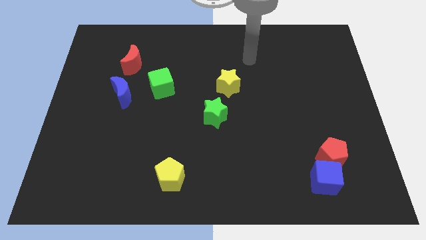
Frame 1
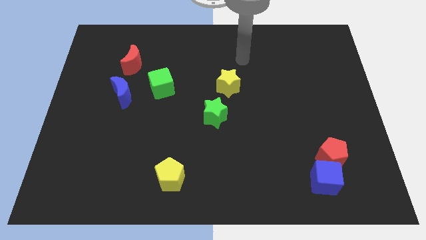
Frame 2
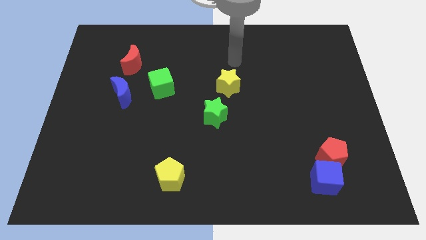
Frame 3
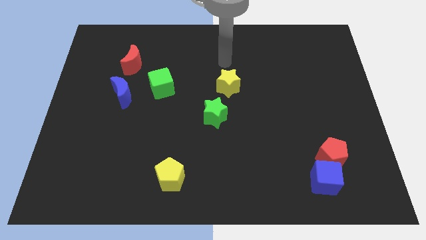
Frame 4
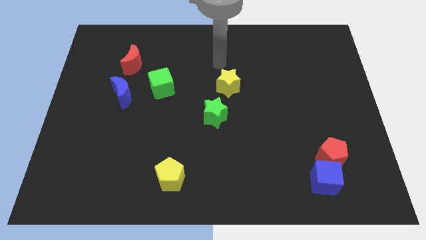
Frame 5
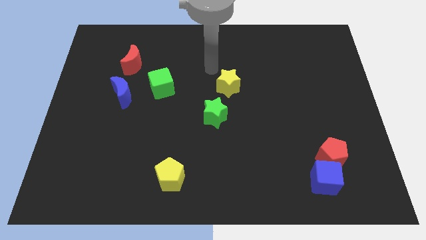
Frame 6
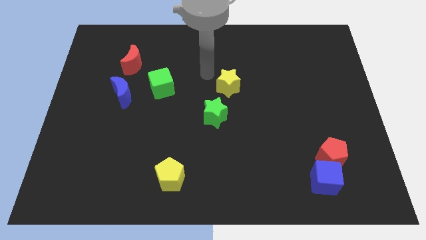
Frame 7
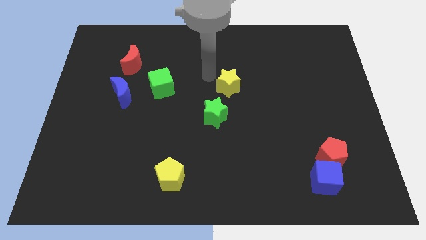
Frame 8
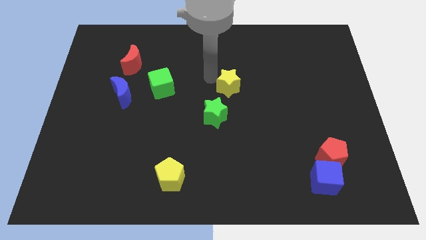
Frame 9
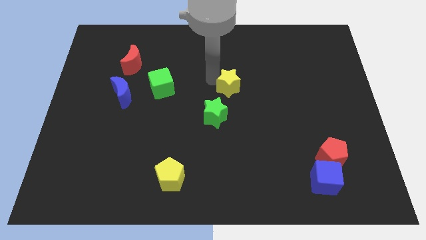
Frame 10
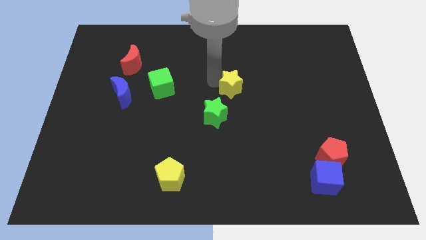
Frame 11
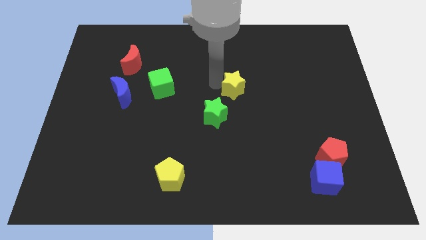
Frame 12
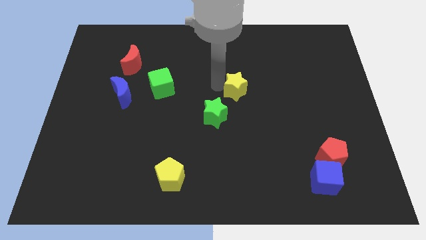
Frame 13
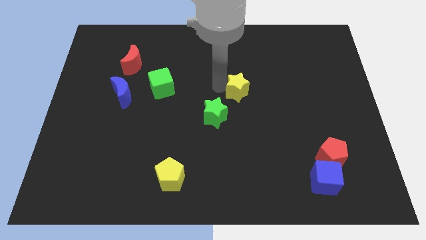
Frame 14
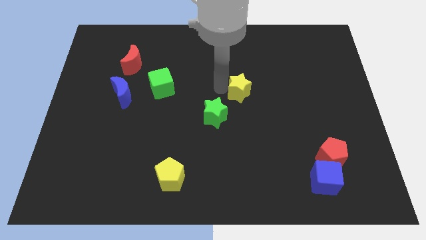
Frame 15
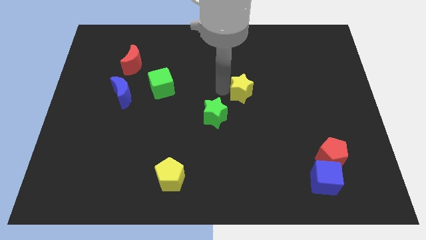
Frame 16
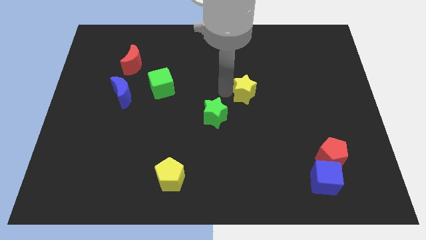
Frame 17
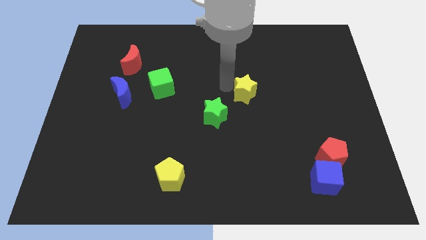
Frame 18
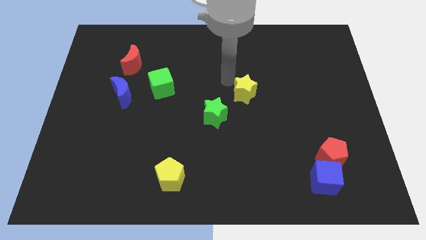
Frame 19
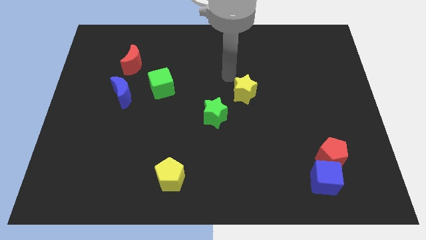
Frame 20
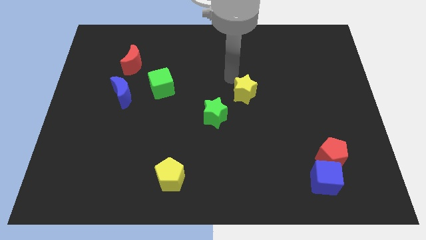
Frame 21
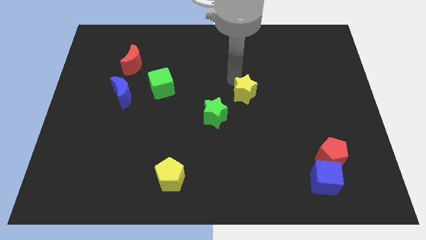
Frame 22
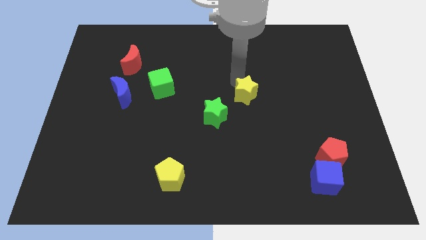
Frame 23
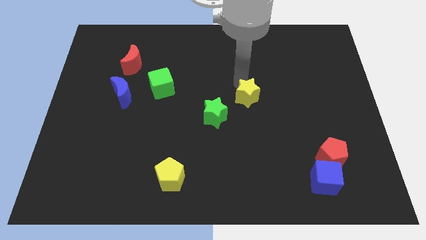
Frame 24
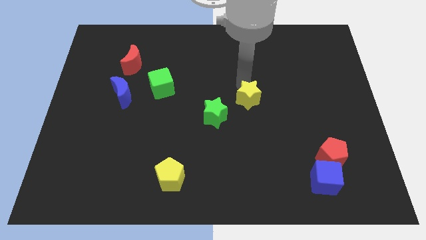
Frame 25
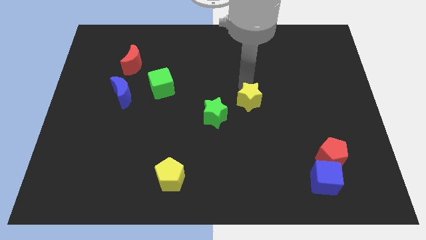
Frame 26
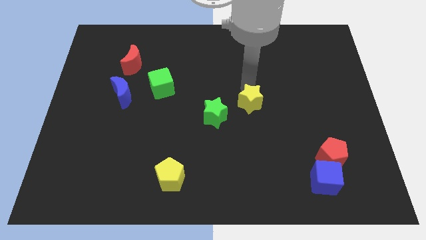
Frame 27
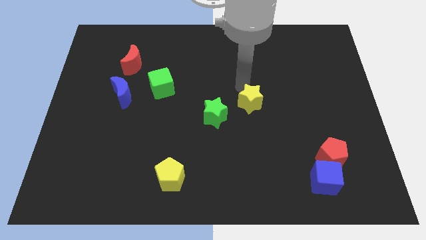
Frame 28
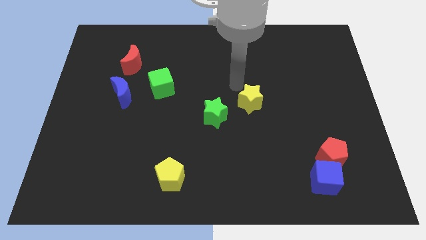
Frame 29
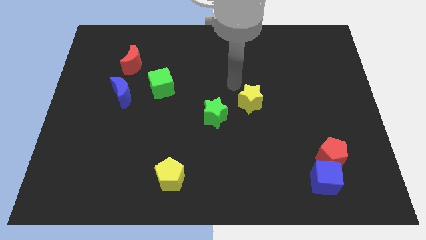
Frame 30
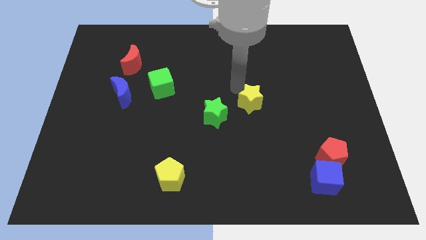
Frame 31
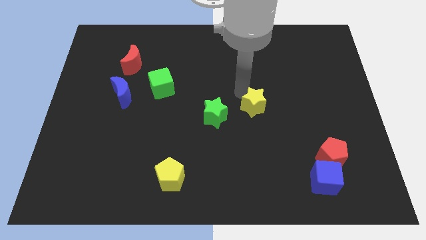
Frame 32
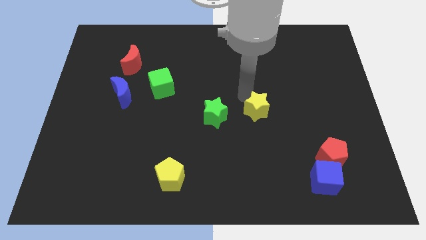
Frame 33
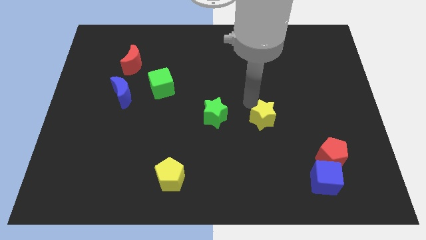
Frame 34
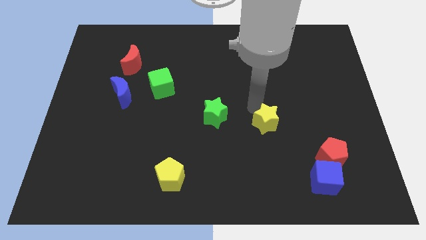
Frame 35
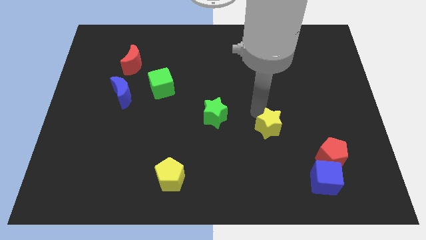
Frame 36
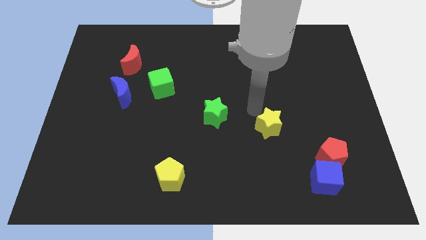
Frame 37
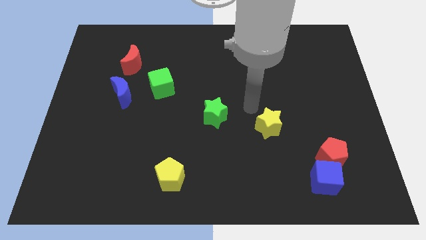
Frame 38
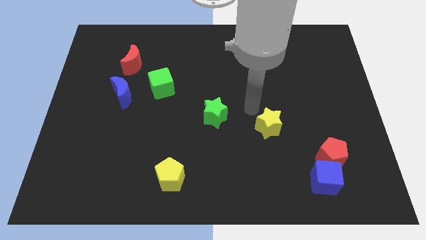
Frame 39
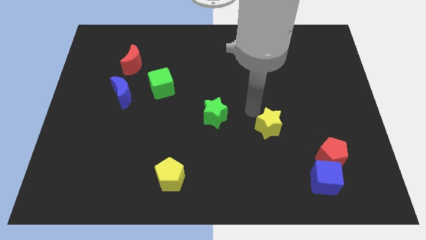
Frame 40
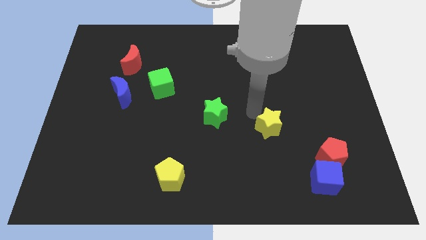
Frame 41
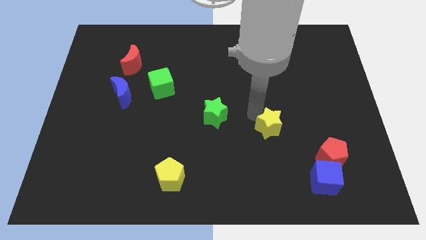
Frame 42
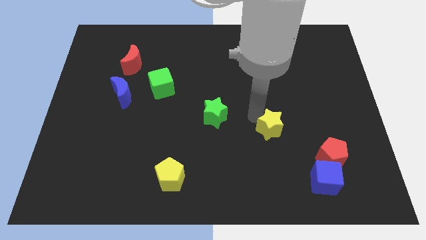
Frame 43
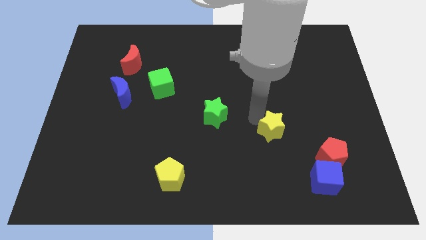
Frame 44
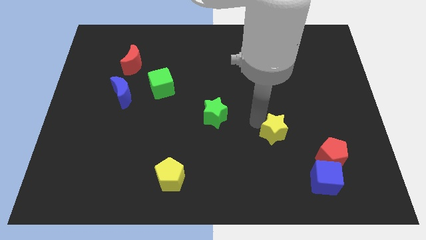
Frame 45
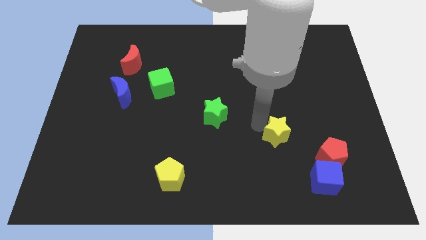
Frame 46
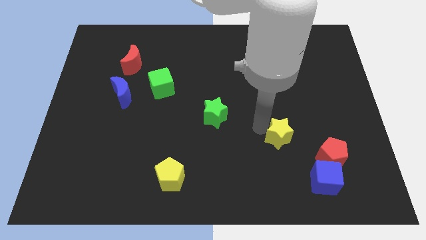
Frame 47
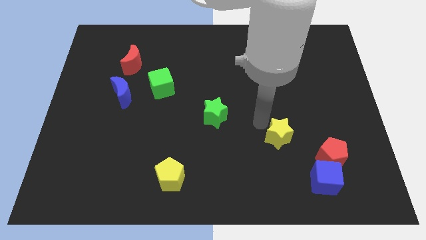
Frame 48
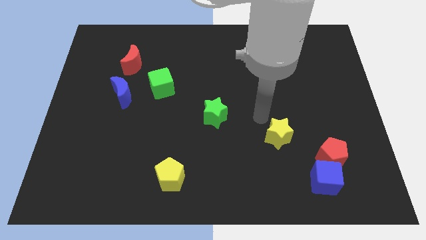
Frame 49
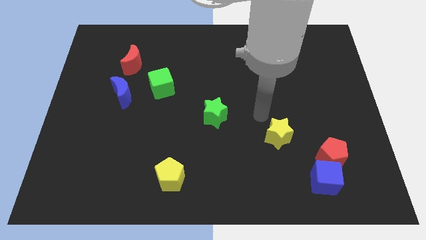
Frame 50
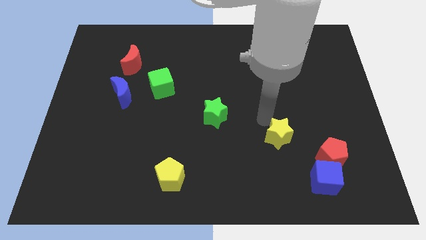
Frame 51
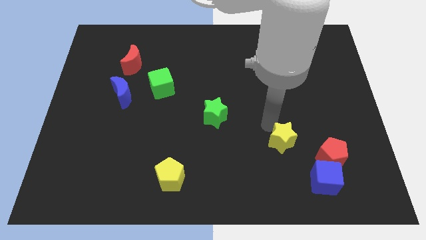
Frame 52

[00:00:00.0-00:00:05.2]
slide the yellow star diagonally up and to the left of the blue cube

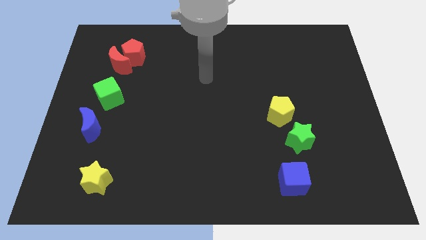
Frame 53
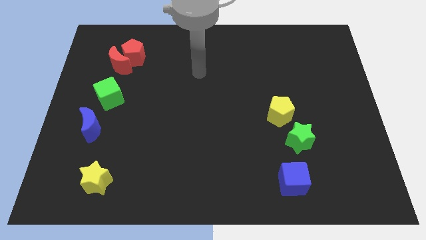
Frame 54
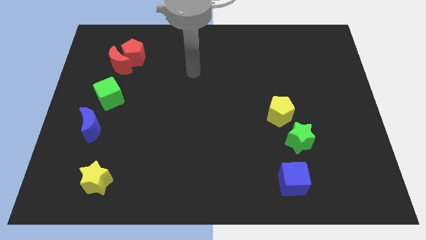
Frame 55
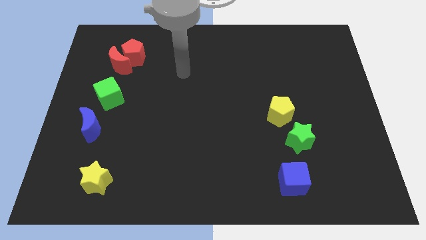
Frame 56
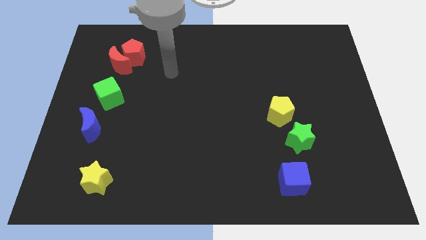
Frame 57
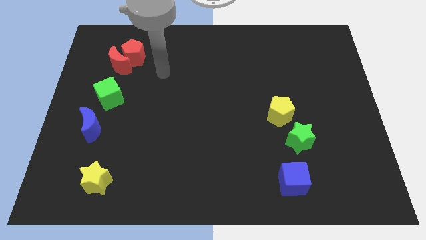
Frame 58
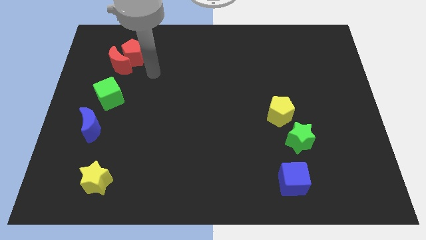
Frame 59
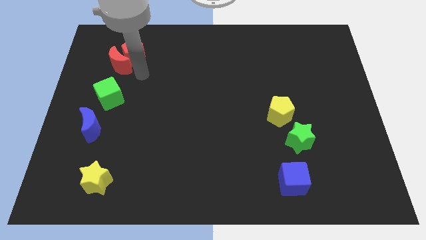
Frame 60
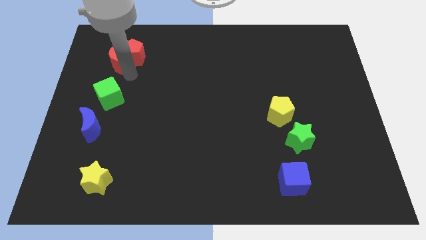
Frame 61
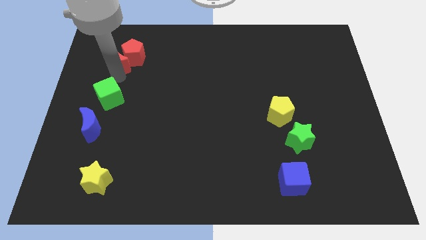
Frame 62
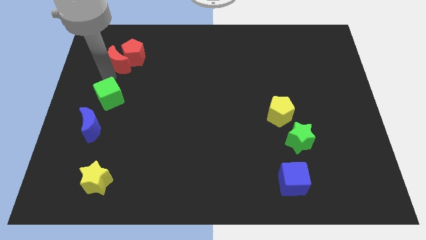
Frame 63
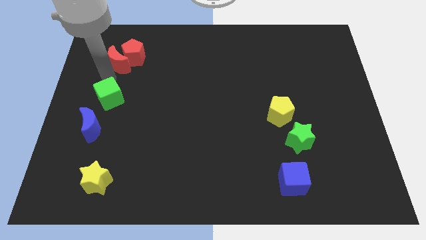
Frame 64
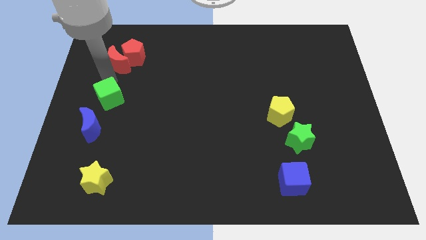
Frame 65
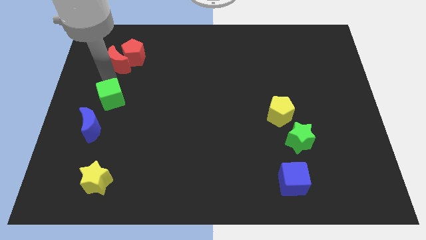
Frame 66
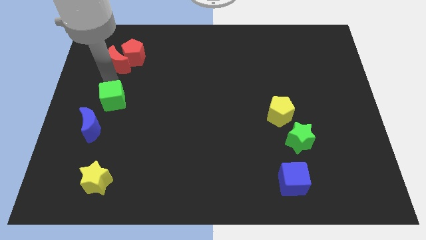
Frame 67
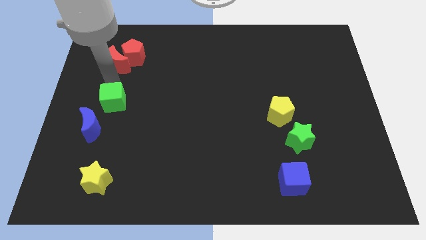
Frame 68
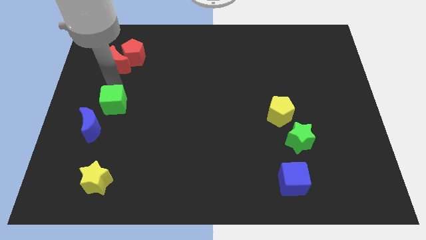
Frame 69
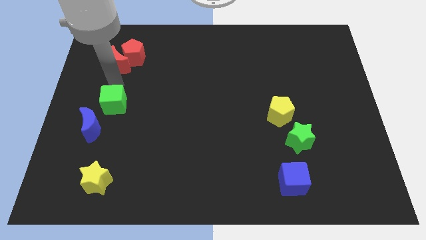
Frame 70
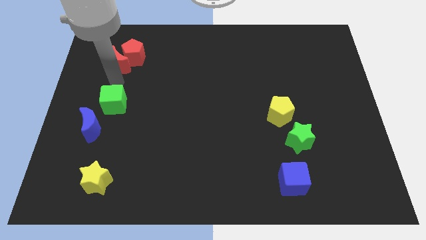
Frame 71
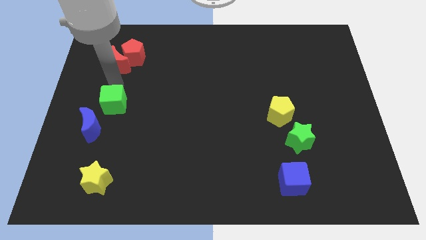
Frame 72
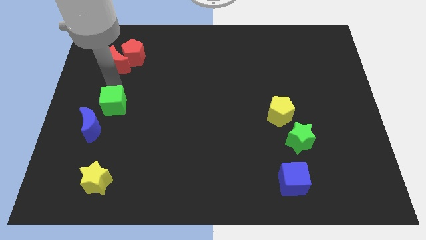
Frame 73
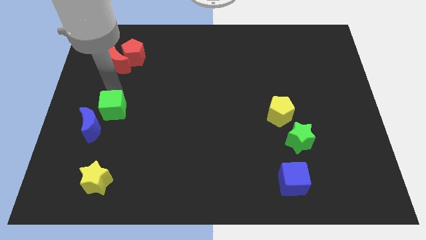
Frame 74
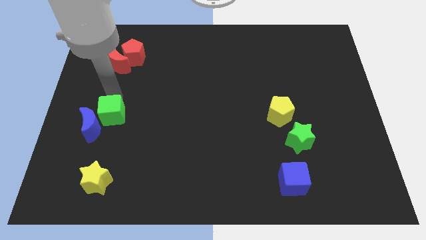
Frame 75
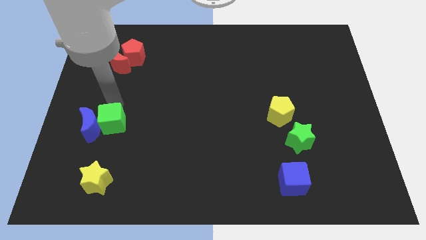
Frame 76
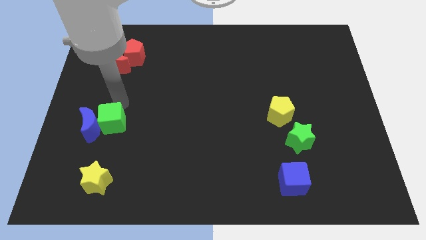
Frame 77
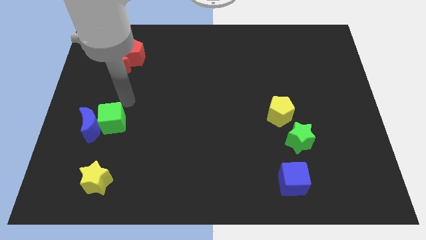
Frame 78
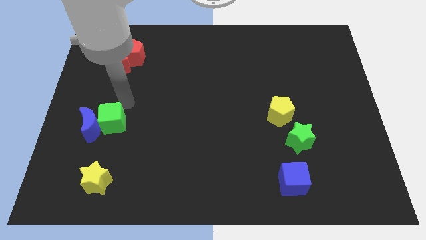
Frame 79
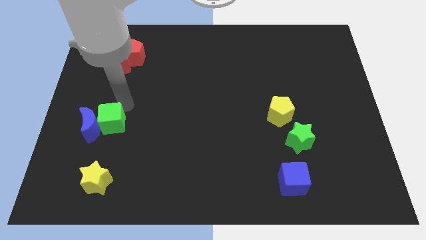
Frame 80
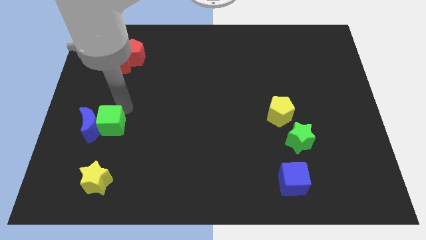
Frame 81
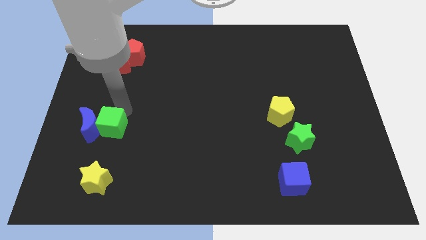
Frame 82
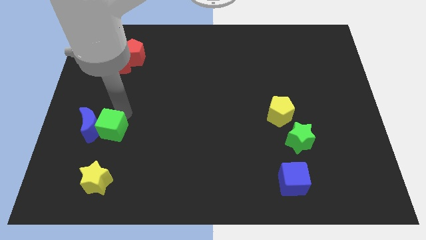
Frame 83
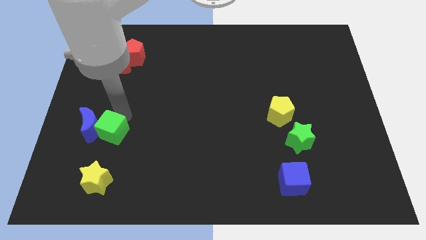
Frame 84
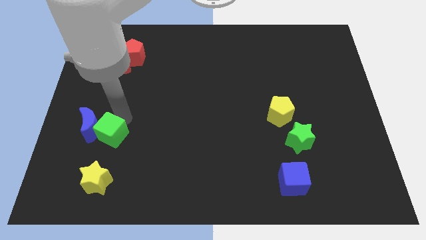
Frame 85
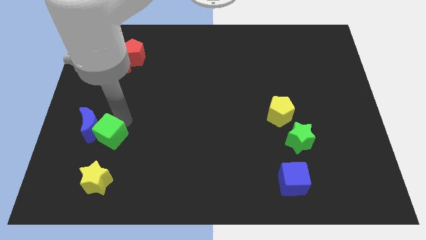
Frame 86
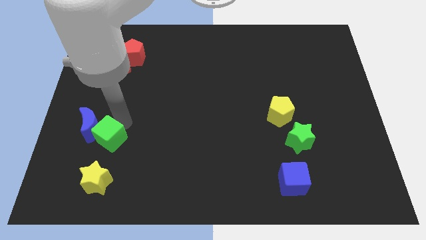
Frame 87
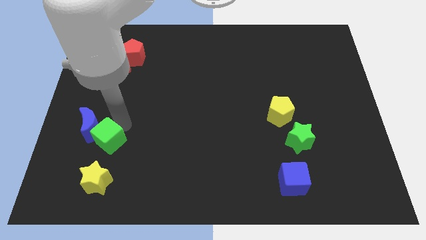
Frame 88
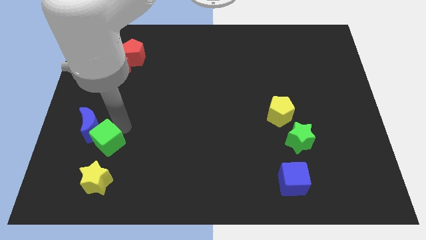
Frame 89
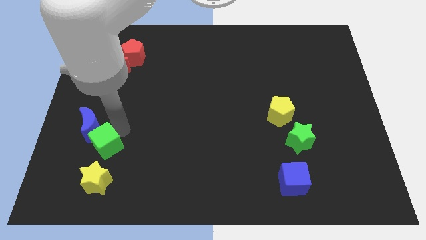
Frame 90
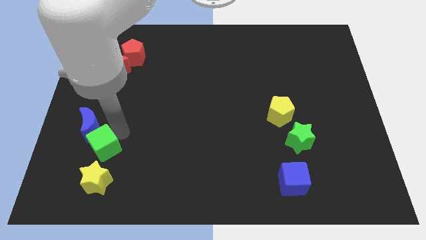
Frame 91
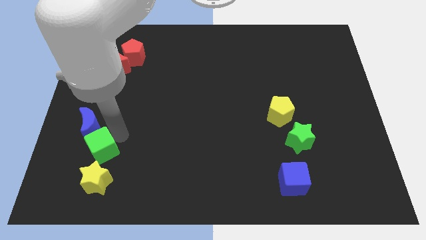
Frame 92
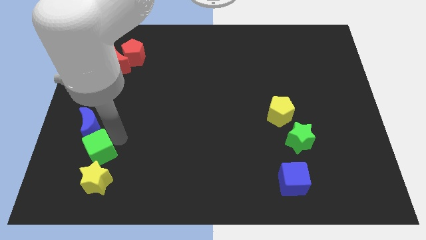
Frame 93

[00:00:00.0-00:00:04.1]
push the green cube to the top left side of the yellow star
